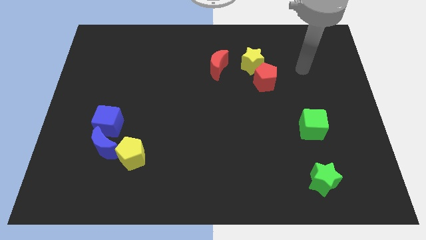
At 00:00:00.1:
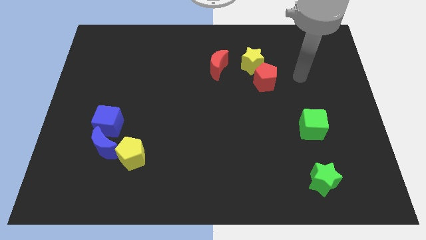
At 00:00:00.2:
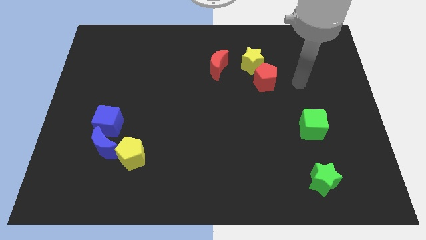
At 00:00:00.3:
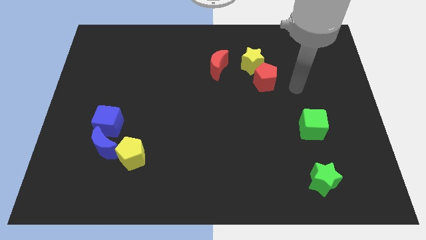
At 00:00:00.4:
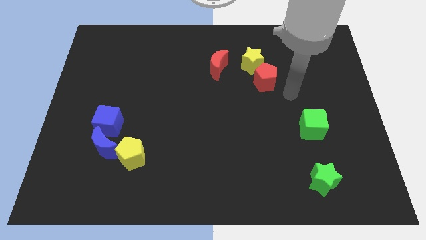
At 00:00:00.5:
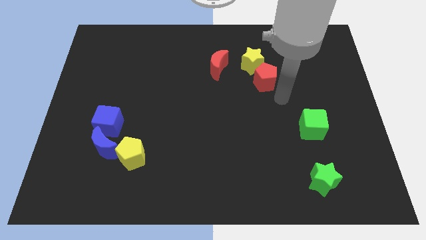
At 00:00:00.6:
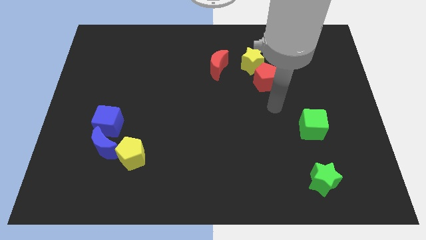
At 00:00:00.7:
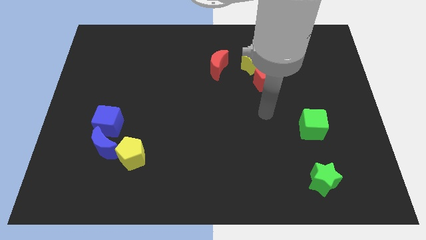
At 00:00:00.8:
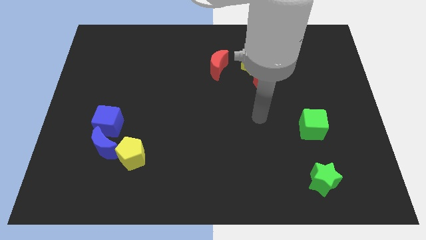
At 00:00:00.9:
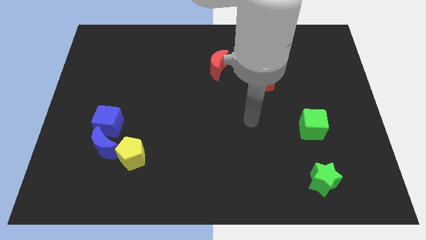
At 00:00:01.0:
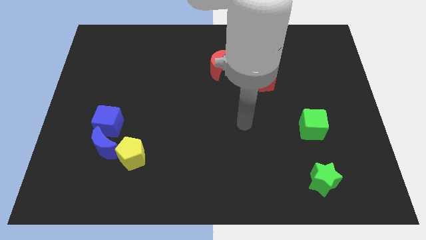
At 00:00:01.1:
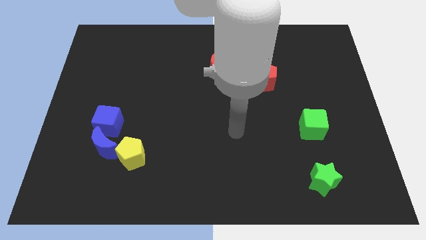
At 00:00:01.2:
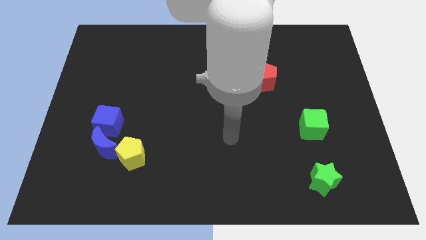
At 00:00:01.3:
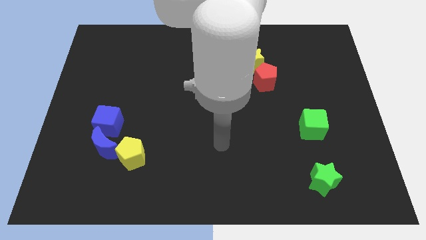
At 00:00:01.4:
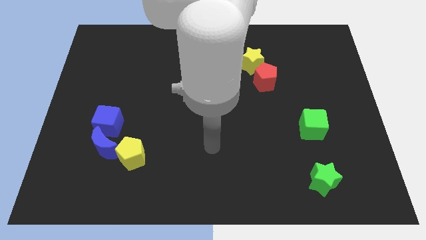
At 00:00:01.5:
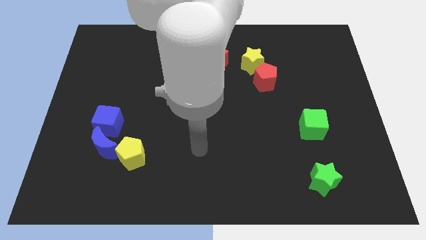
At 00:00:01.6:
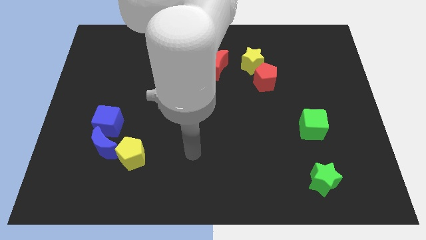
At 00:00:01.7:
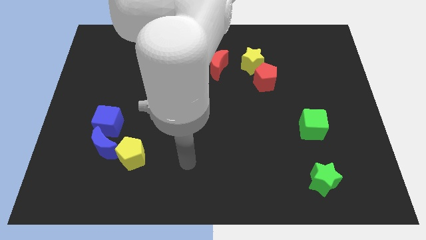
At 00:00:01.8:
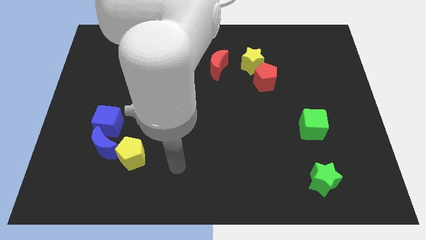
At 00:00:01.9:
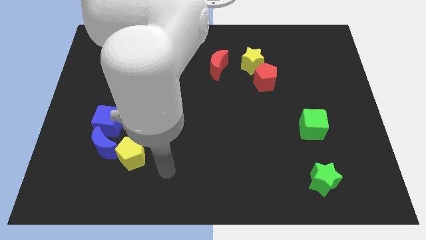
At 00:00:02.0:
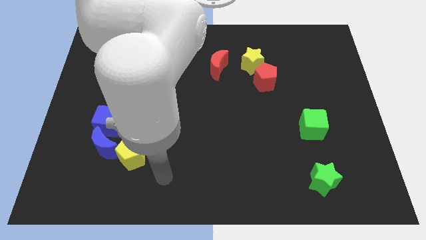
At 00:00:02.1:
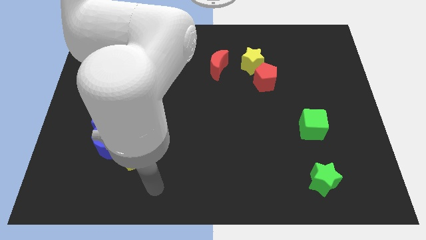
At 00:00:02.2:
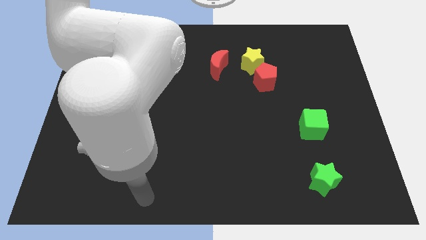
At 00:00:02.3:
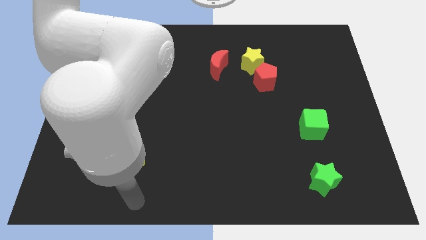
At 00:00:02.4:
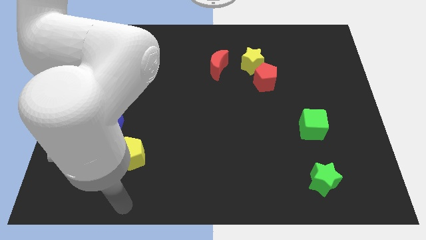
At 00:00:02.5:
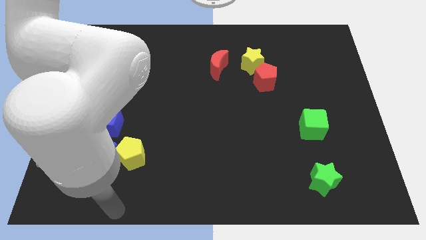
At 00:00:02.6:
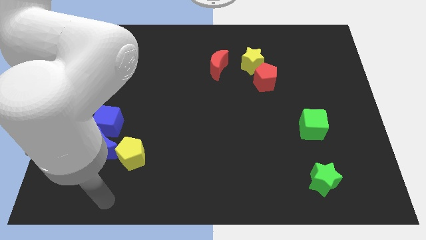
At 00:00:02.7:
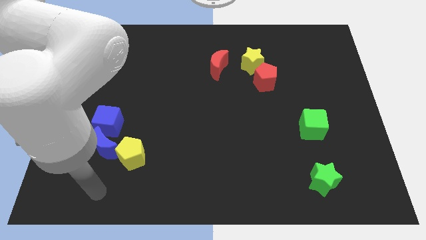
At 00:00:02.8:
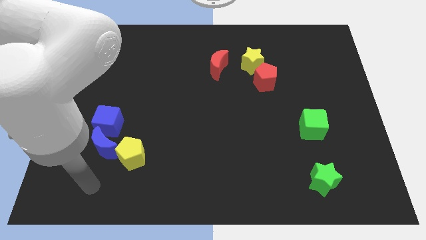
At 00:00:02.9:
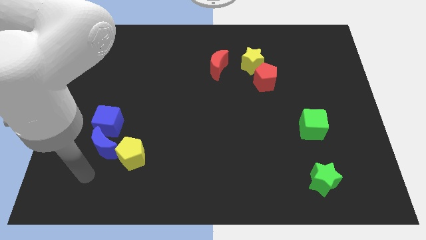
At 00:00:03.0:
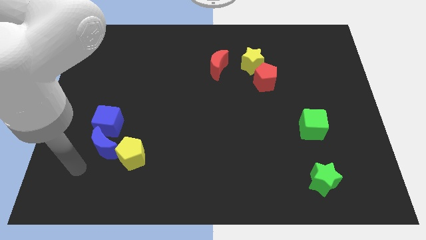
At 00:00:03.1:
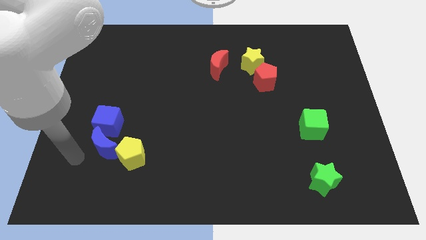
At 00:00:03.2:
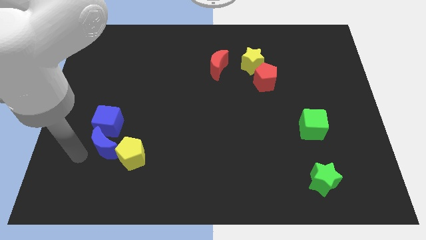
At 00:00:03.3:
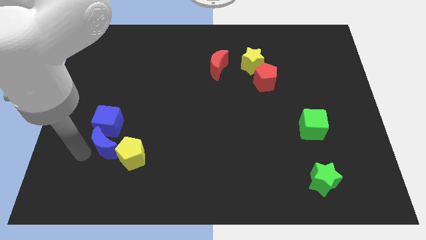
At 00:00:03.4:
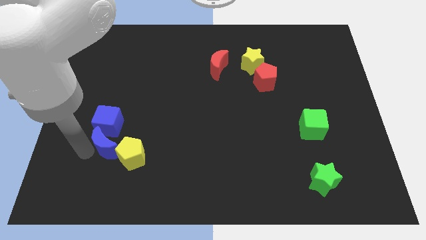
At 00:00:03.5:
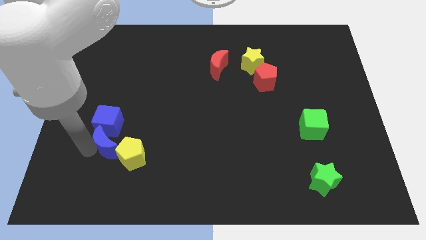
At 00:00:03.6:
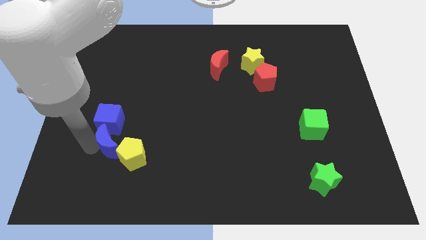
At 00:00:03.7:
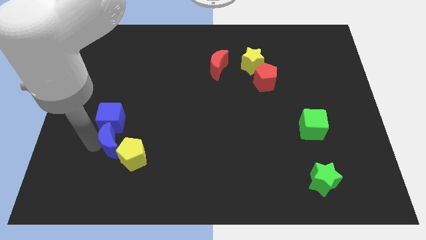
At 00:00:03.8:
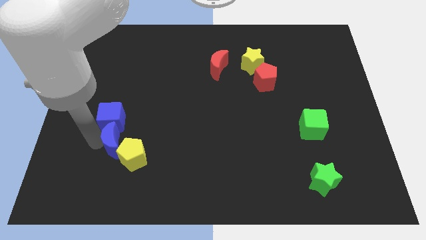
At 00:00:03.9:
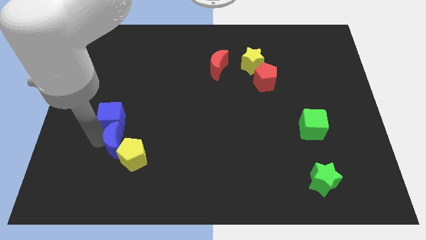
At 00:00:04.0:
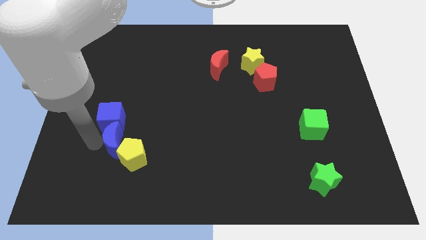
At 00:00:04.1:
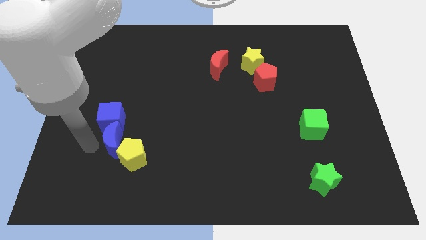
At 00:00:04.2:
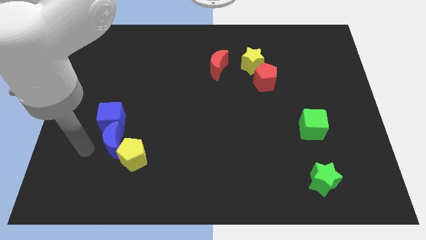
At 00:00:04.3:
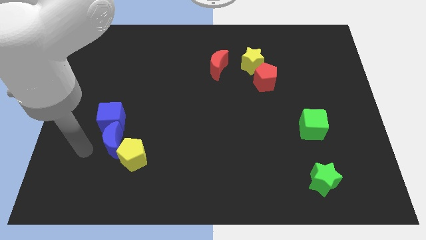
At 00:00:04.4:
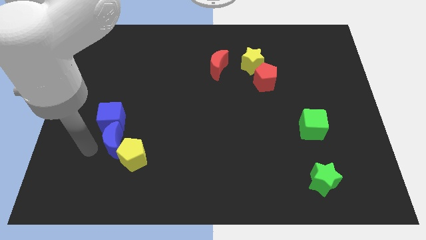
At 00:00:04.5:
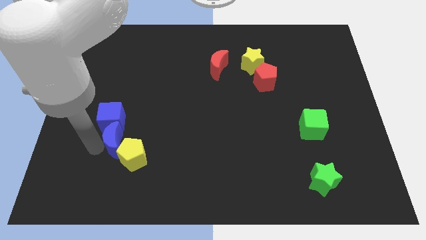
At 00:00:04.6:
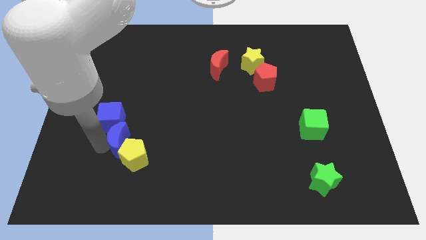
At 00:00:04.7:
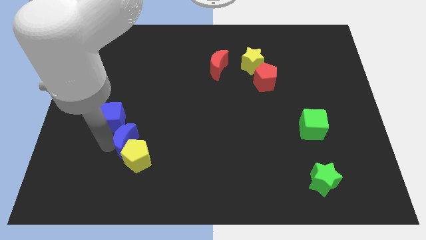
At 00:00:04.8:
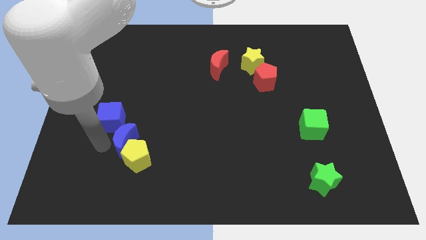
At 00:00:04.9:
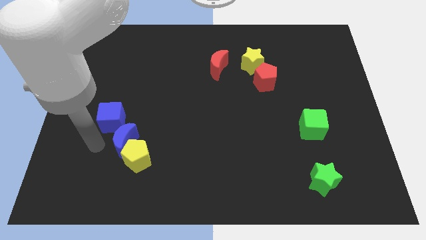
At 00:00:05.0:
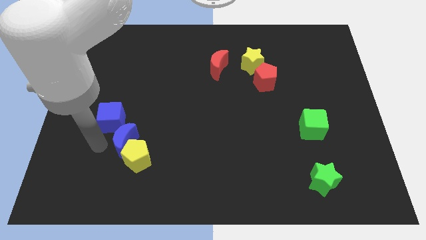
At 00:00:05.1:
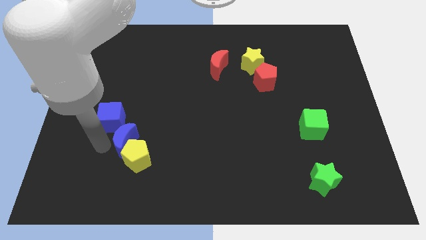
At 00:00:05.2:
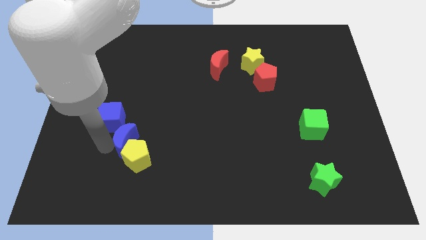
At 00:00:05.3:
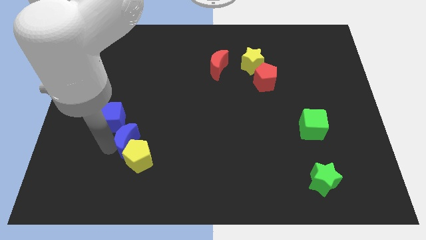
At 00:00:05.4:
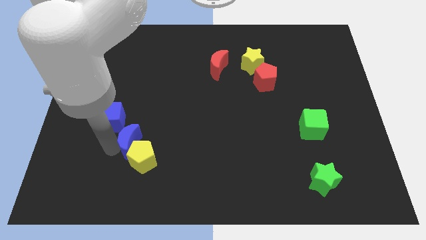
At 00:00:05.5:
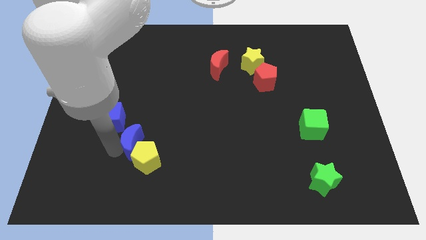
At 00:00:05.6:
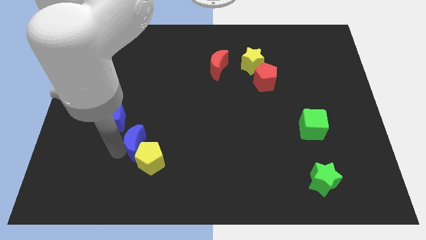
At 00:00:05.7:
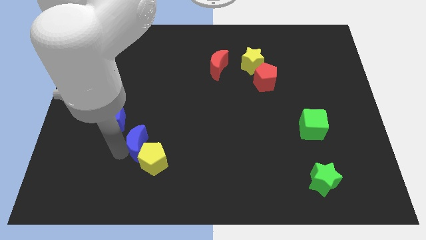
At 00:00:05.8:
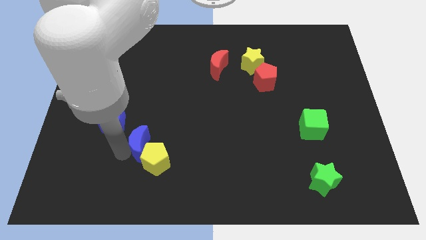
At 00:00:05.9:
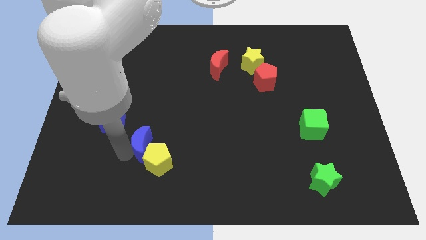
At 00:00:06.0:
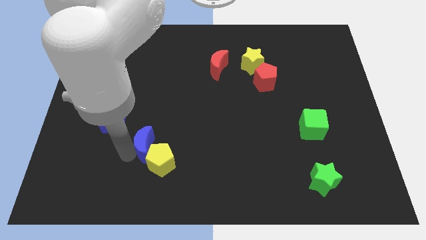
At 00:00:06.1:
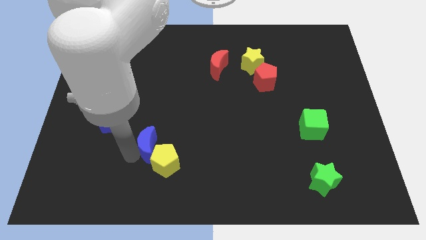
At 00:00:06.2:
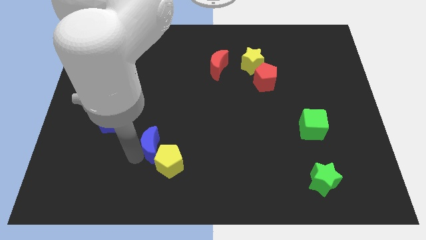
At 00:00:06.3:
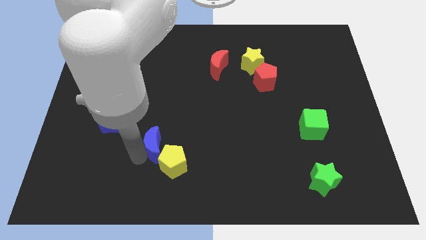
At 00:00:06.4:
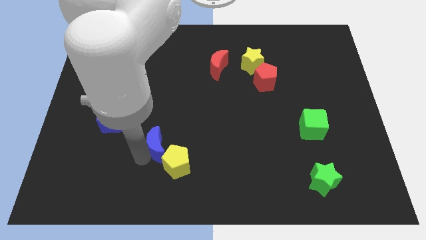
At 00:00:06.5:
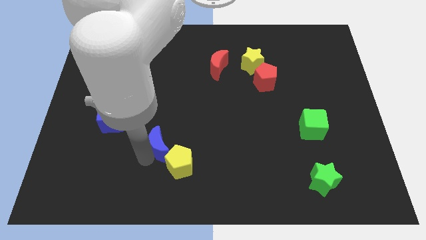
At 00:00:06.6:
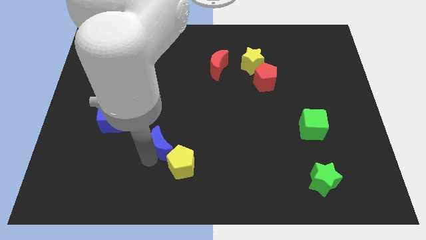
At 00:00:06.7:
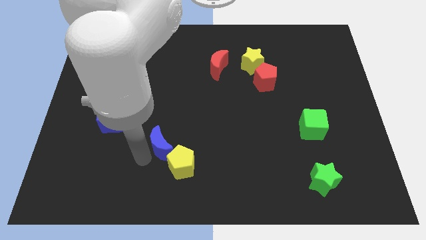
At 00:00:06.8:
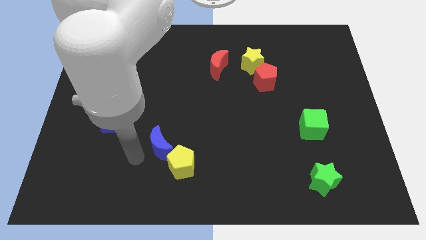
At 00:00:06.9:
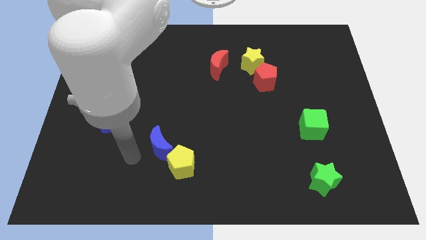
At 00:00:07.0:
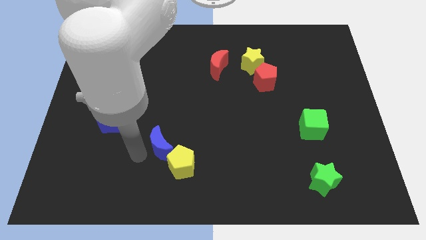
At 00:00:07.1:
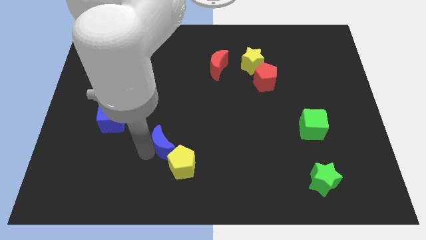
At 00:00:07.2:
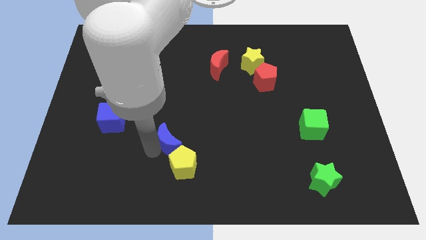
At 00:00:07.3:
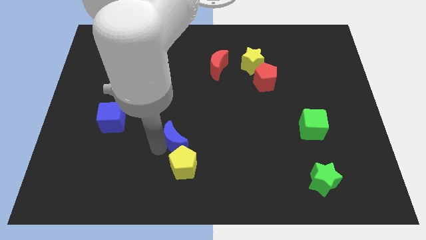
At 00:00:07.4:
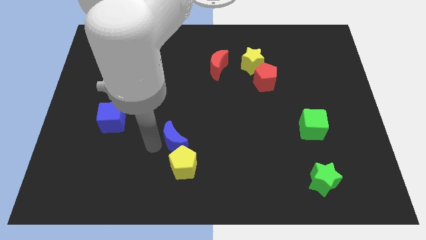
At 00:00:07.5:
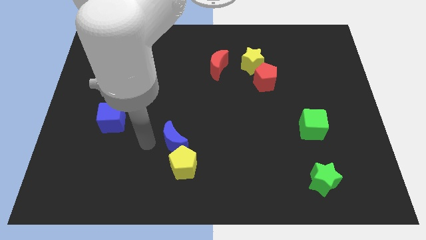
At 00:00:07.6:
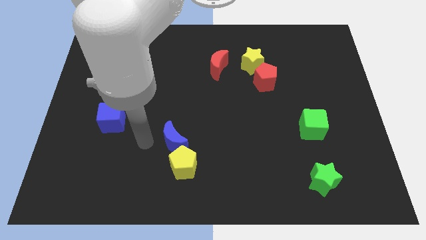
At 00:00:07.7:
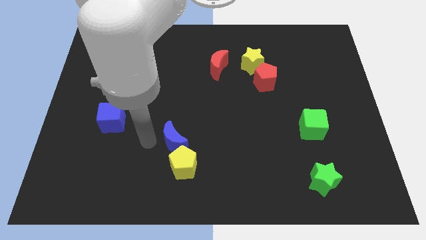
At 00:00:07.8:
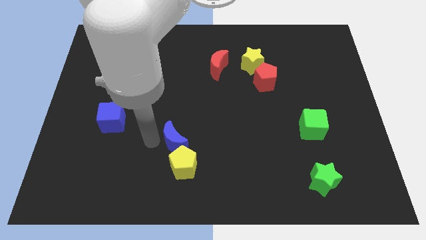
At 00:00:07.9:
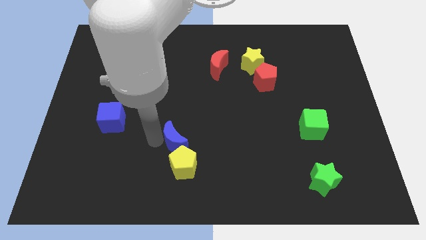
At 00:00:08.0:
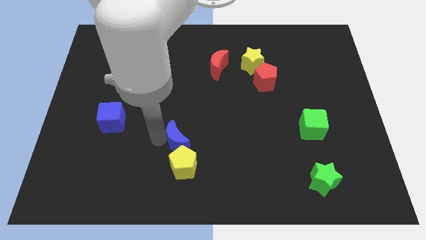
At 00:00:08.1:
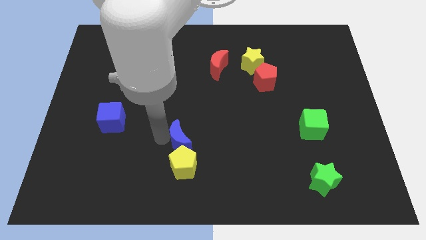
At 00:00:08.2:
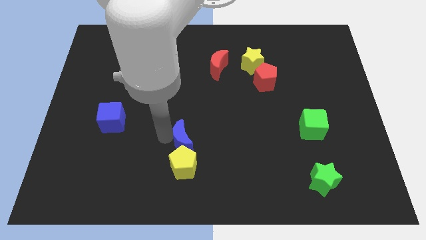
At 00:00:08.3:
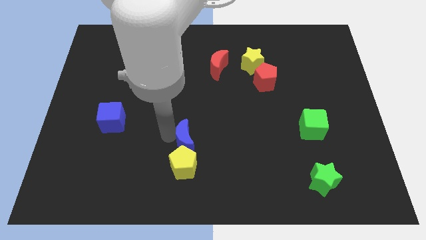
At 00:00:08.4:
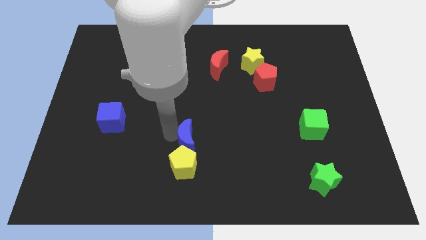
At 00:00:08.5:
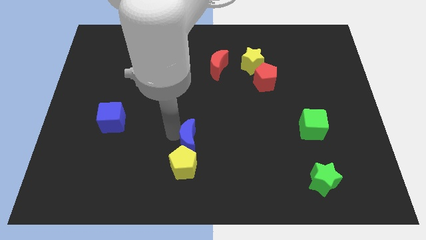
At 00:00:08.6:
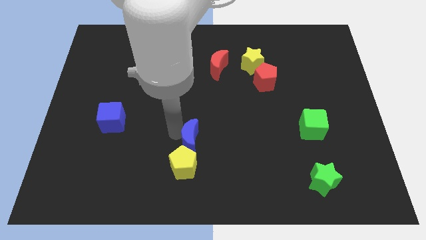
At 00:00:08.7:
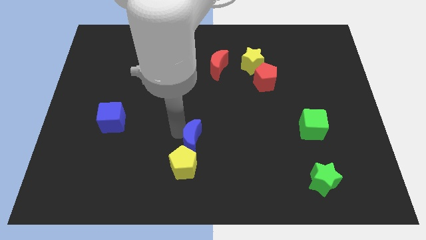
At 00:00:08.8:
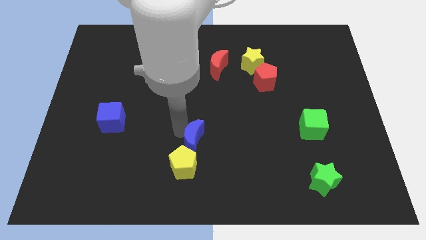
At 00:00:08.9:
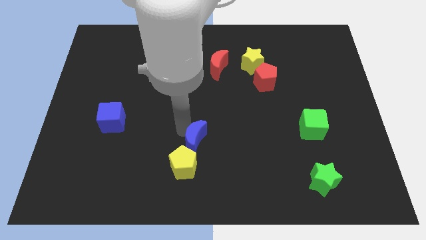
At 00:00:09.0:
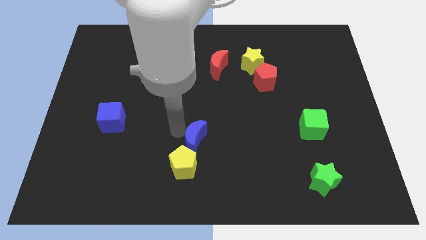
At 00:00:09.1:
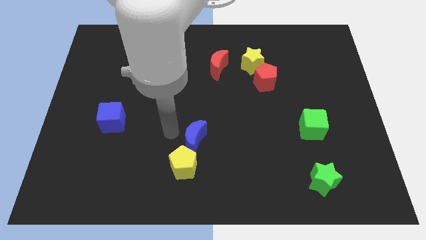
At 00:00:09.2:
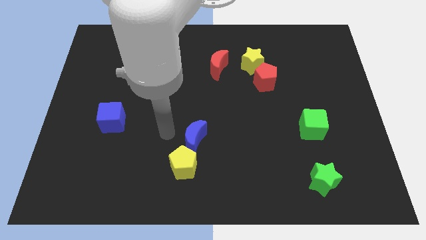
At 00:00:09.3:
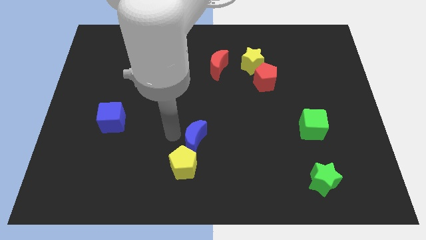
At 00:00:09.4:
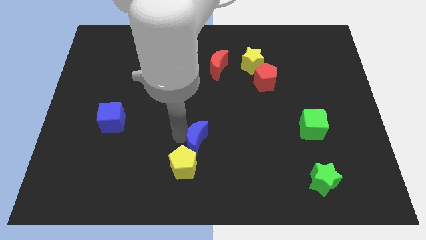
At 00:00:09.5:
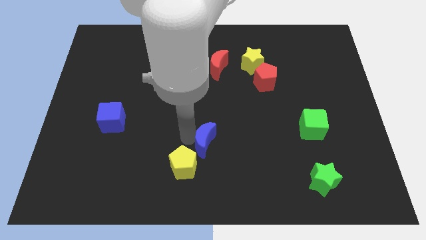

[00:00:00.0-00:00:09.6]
move the blue moon to the right
